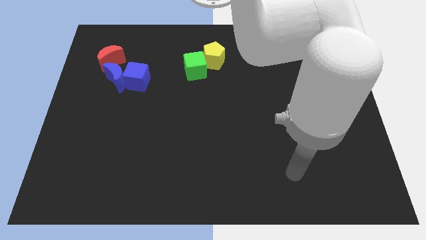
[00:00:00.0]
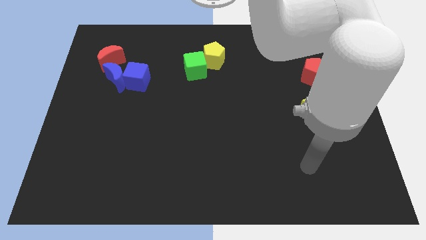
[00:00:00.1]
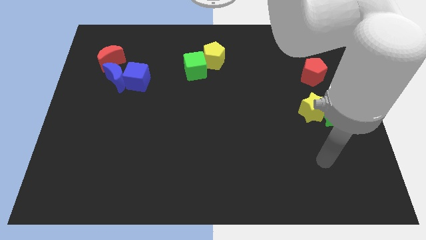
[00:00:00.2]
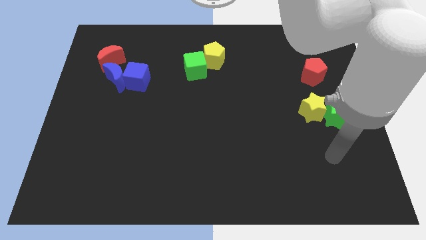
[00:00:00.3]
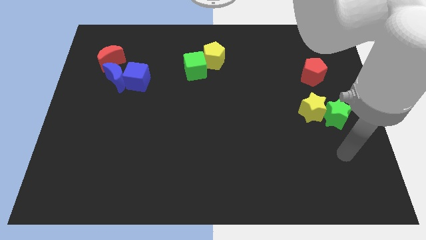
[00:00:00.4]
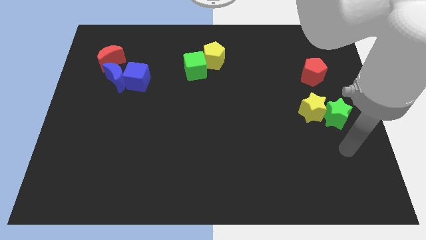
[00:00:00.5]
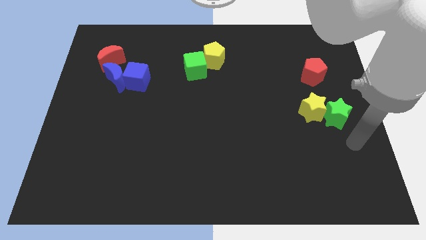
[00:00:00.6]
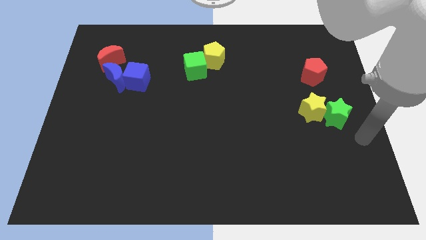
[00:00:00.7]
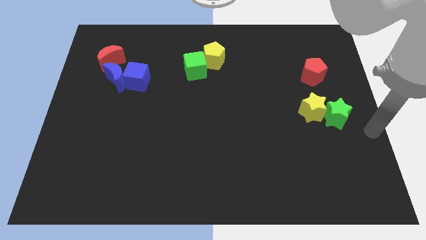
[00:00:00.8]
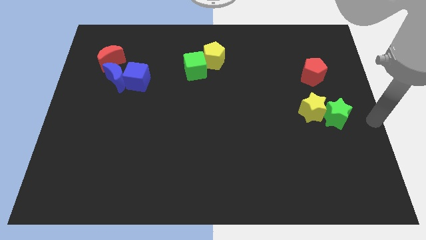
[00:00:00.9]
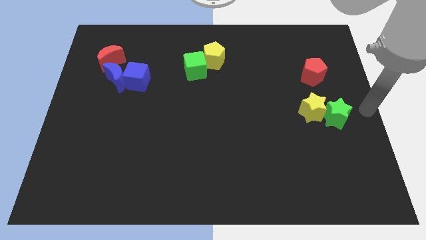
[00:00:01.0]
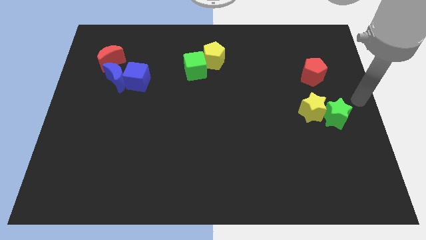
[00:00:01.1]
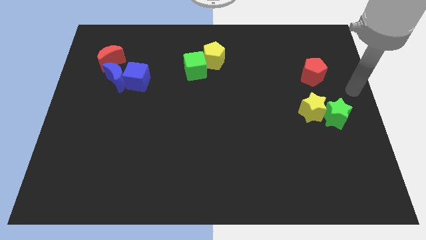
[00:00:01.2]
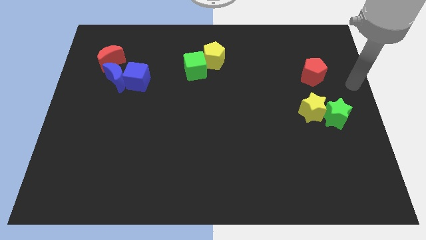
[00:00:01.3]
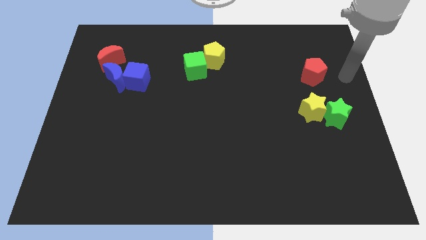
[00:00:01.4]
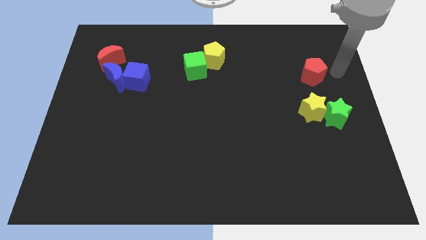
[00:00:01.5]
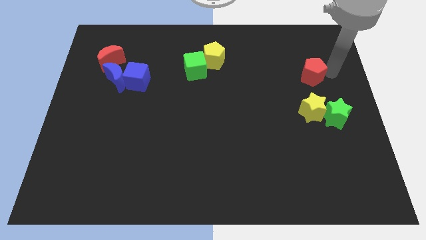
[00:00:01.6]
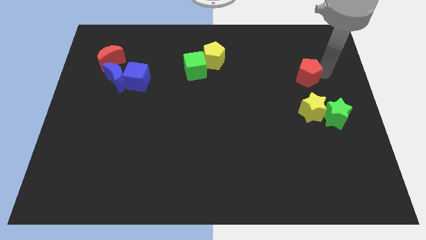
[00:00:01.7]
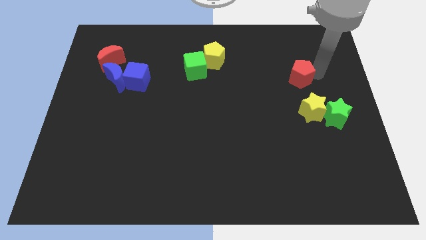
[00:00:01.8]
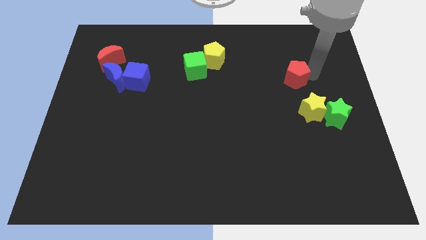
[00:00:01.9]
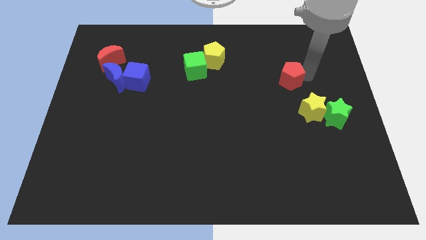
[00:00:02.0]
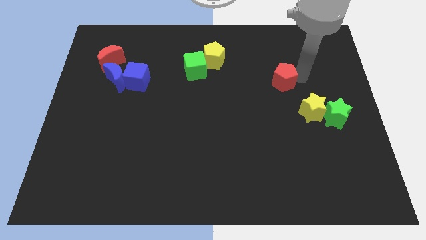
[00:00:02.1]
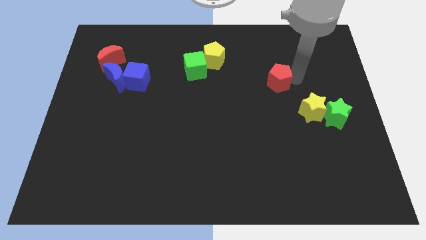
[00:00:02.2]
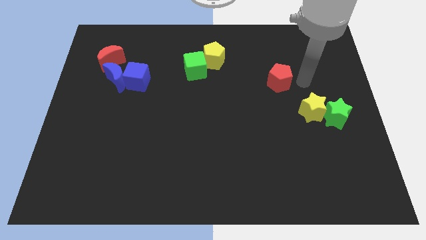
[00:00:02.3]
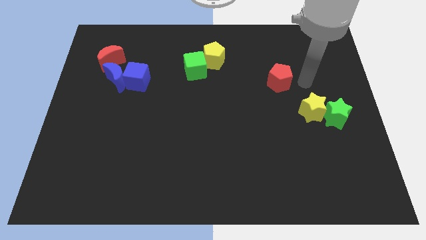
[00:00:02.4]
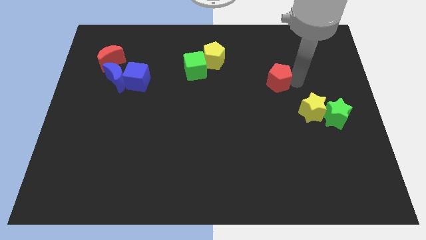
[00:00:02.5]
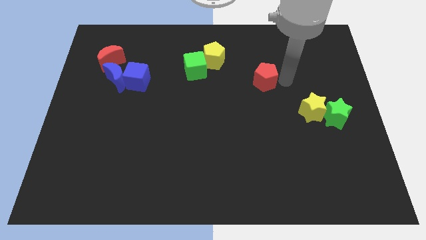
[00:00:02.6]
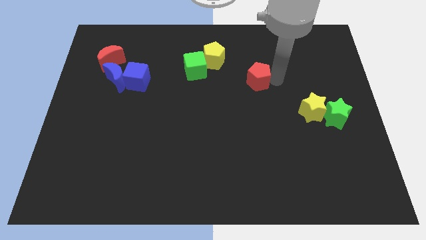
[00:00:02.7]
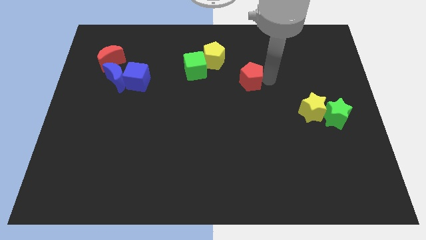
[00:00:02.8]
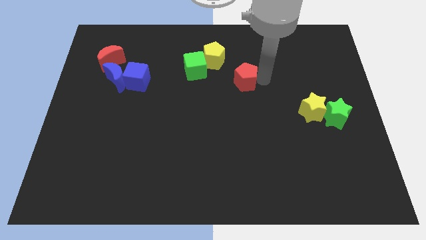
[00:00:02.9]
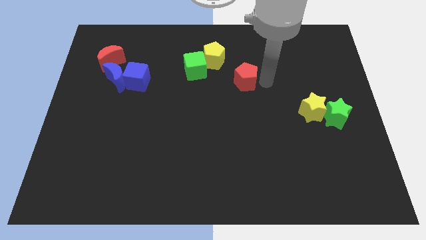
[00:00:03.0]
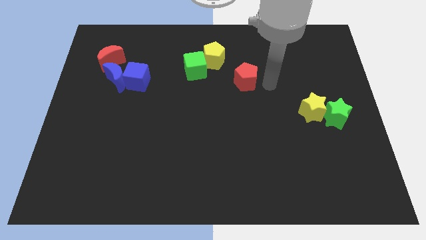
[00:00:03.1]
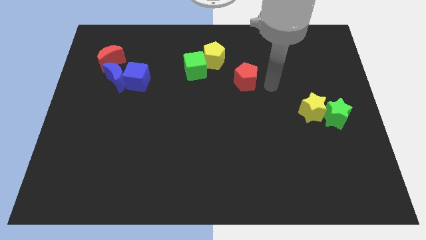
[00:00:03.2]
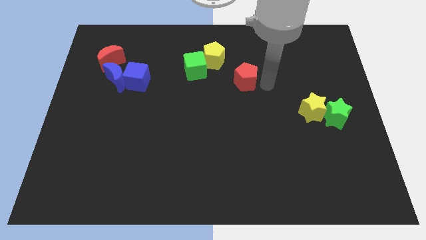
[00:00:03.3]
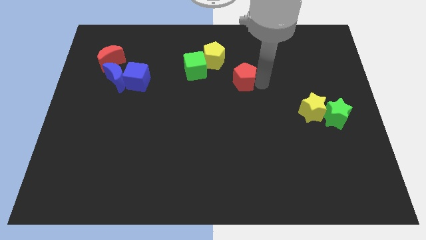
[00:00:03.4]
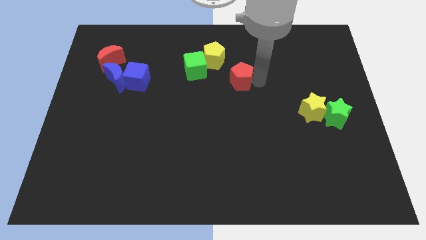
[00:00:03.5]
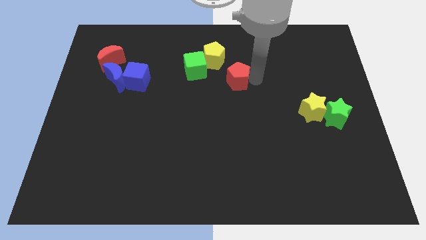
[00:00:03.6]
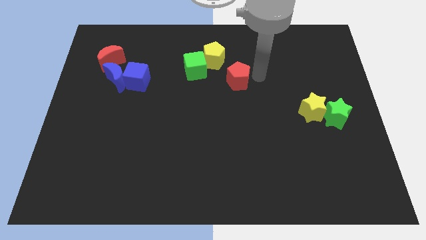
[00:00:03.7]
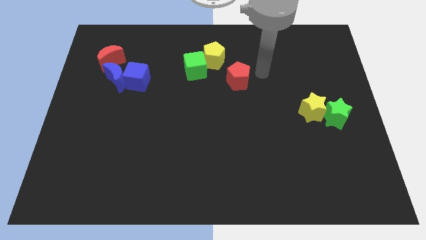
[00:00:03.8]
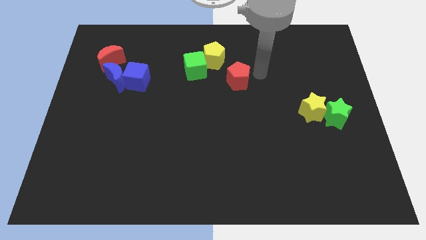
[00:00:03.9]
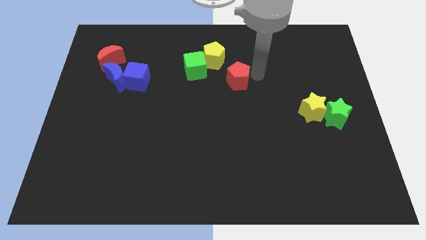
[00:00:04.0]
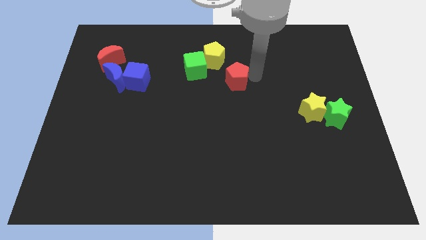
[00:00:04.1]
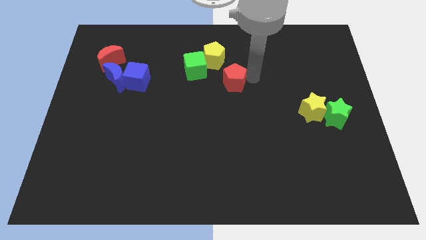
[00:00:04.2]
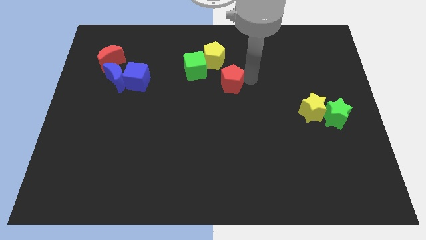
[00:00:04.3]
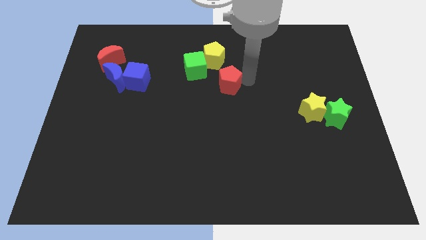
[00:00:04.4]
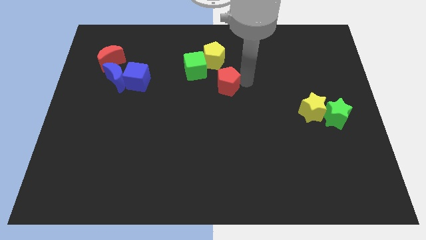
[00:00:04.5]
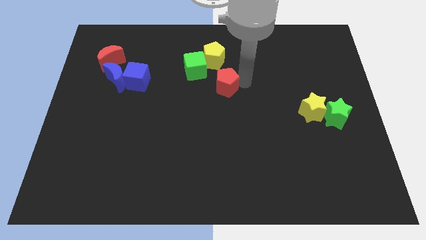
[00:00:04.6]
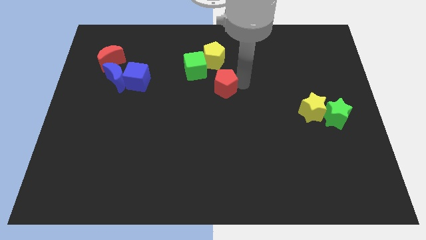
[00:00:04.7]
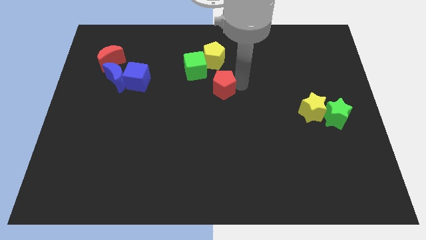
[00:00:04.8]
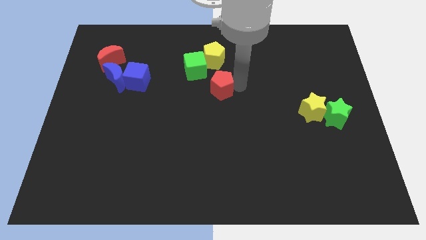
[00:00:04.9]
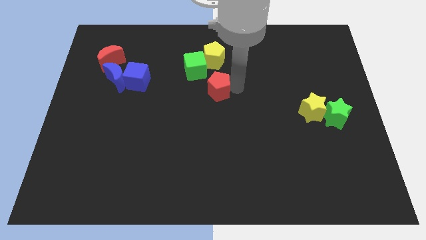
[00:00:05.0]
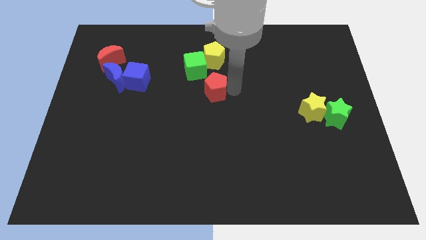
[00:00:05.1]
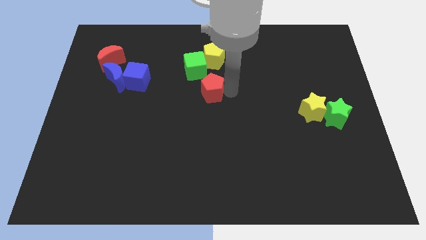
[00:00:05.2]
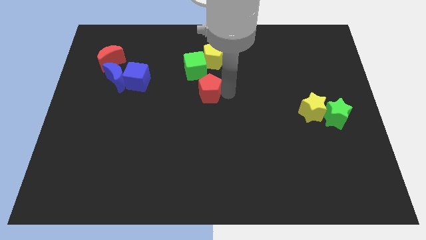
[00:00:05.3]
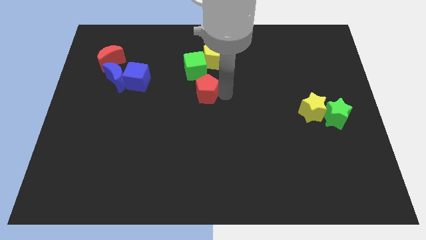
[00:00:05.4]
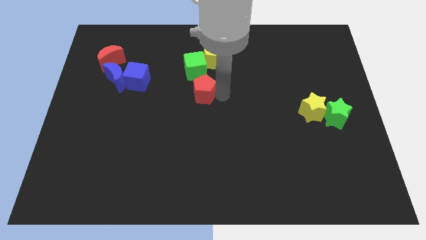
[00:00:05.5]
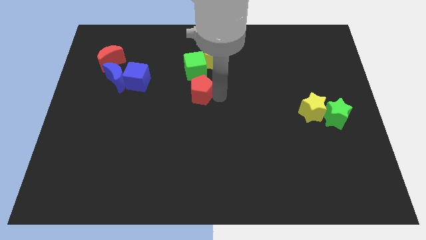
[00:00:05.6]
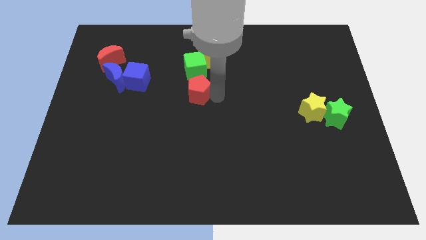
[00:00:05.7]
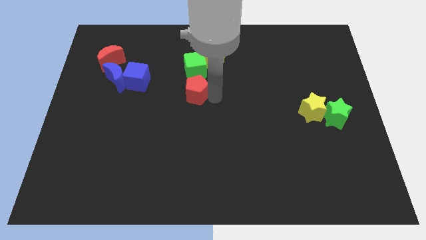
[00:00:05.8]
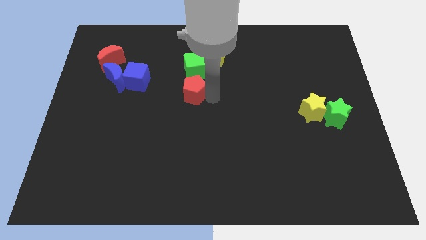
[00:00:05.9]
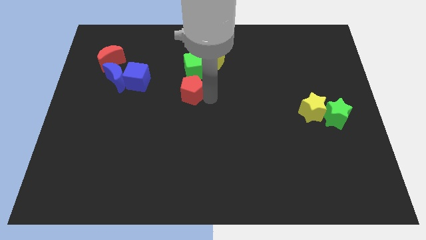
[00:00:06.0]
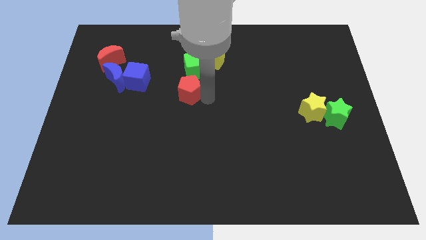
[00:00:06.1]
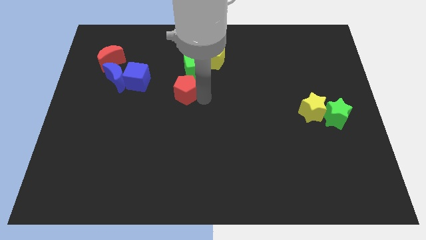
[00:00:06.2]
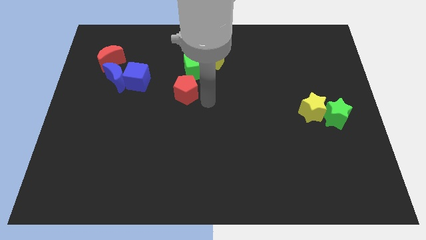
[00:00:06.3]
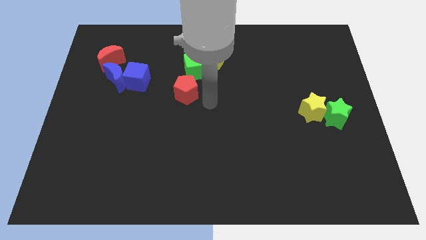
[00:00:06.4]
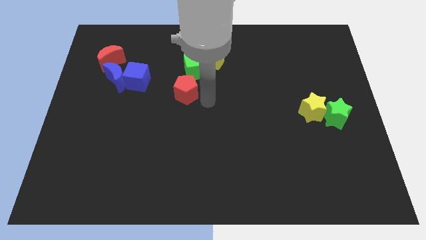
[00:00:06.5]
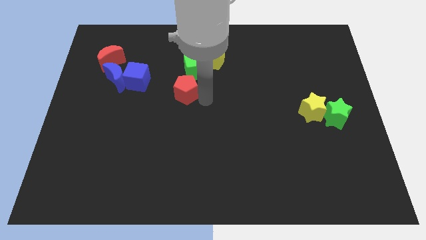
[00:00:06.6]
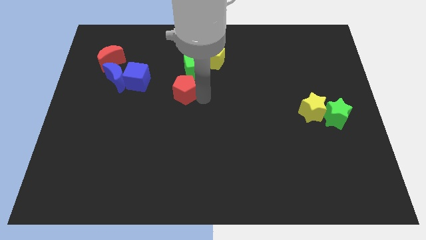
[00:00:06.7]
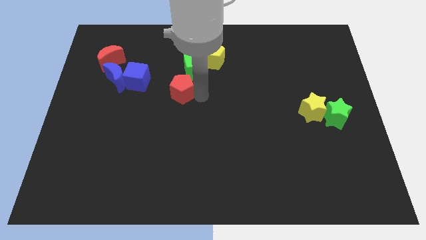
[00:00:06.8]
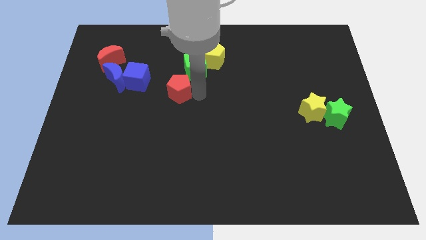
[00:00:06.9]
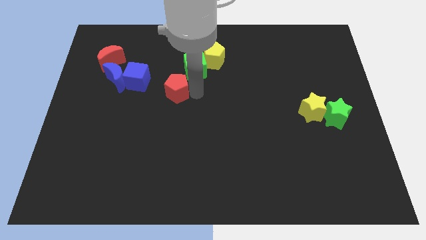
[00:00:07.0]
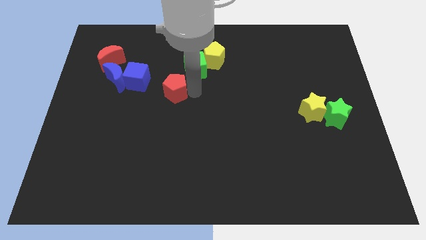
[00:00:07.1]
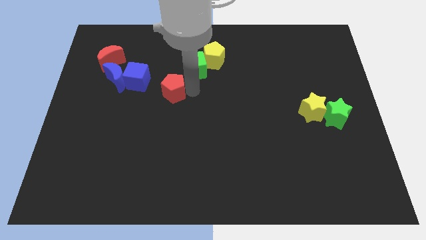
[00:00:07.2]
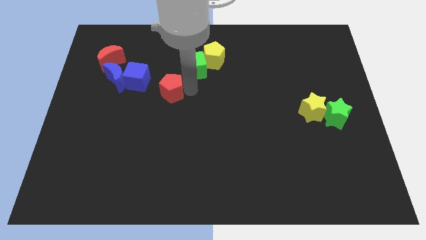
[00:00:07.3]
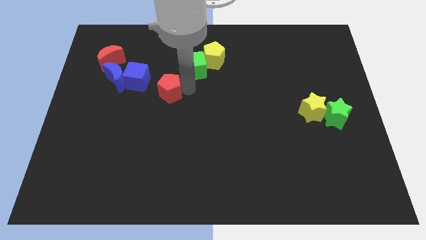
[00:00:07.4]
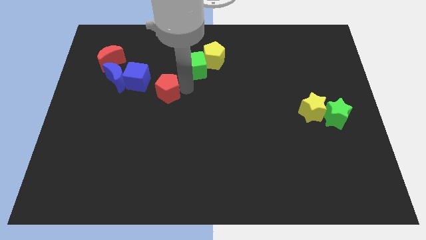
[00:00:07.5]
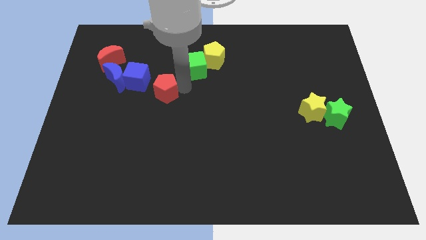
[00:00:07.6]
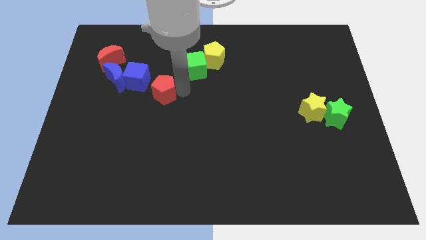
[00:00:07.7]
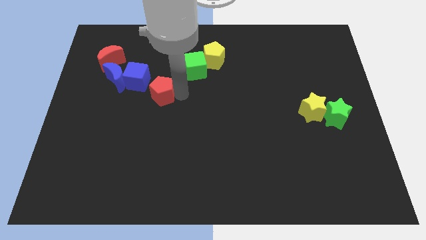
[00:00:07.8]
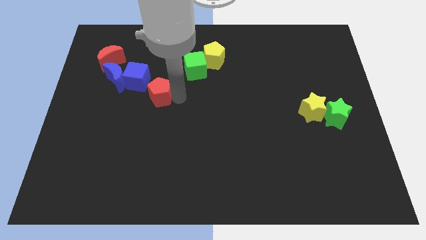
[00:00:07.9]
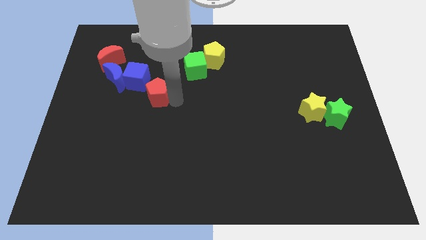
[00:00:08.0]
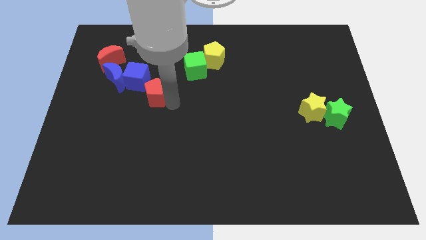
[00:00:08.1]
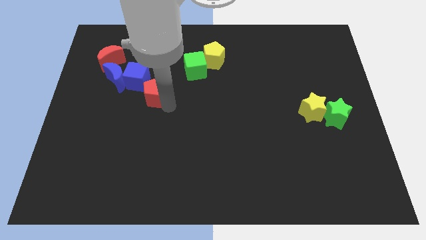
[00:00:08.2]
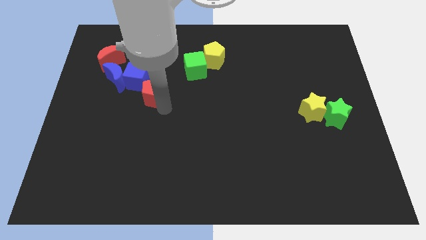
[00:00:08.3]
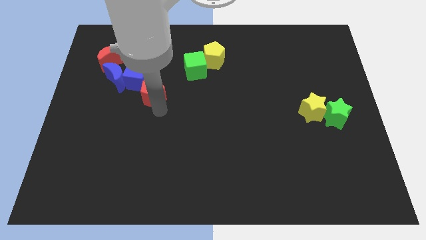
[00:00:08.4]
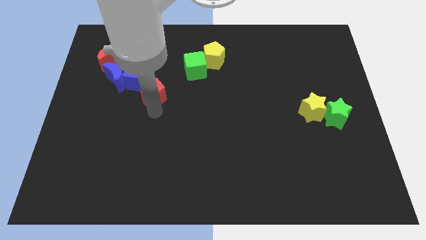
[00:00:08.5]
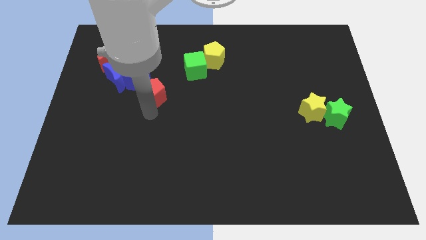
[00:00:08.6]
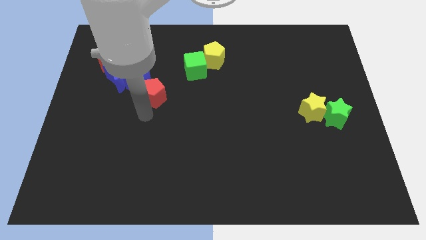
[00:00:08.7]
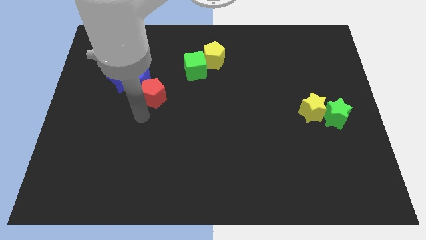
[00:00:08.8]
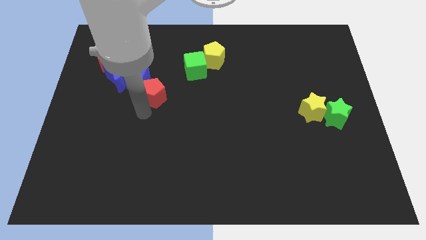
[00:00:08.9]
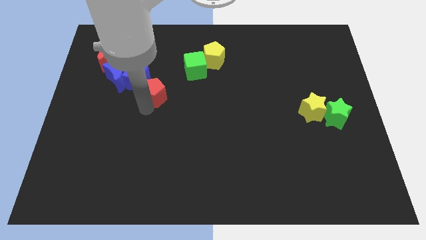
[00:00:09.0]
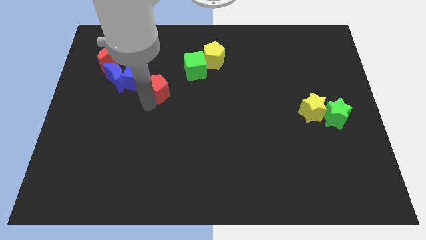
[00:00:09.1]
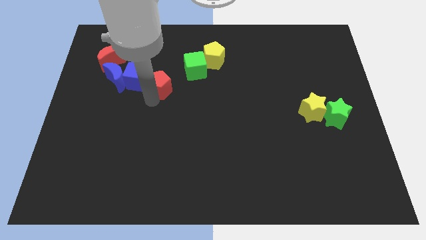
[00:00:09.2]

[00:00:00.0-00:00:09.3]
slide the red pentagon next to the blue cube
